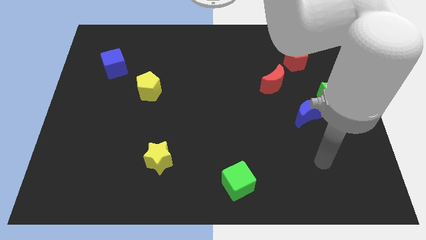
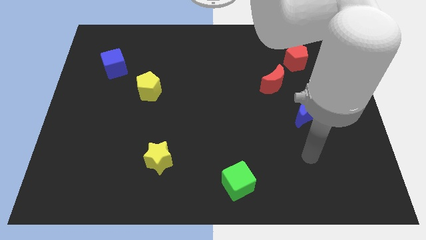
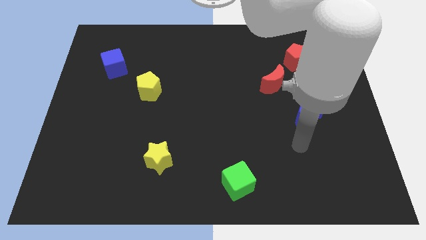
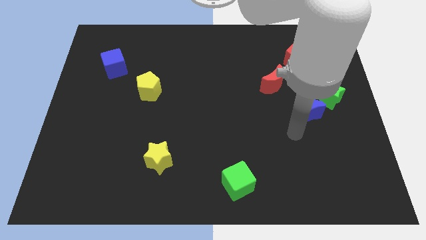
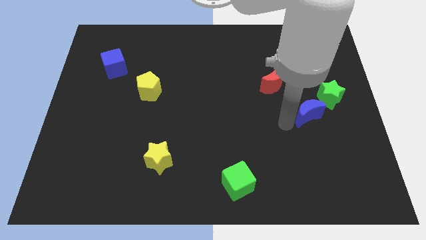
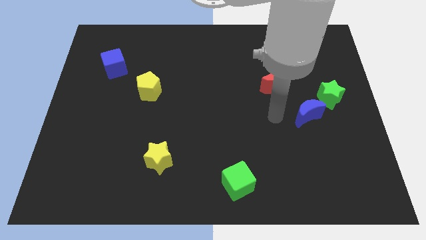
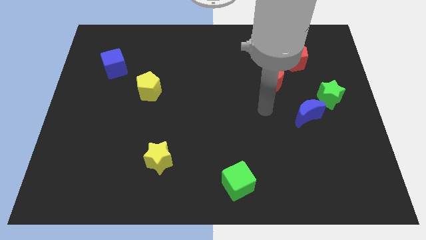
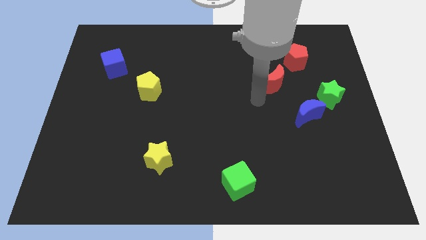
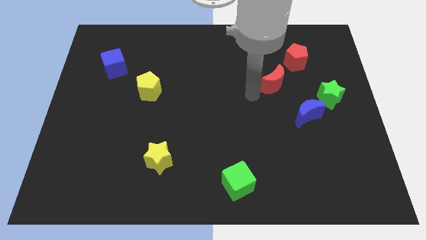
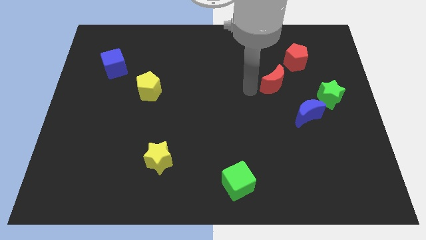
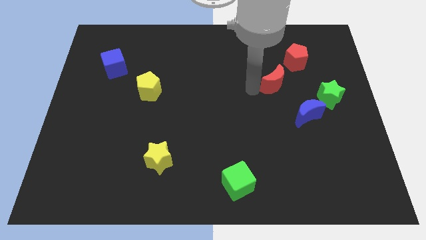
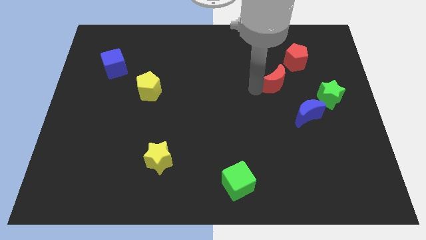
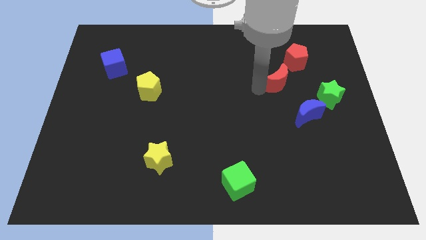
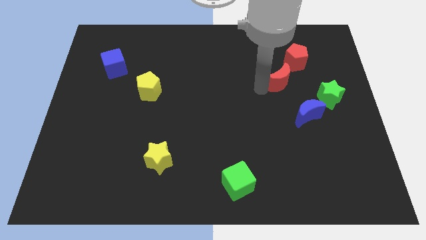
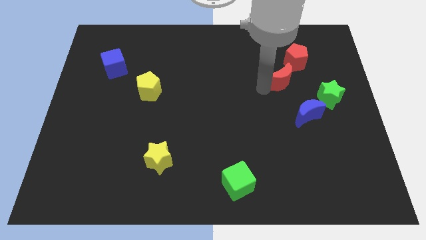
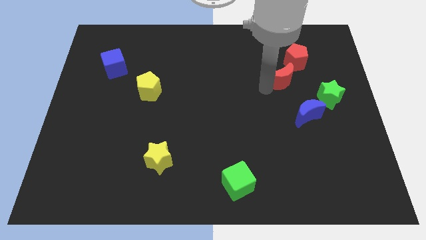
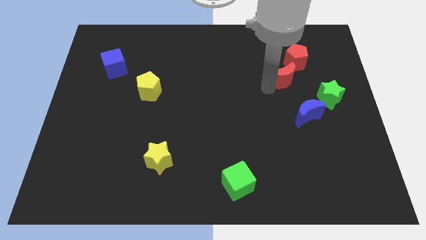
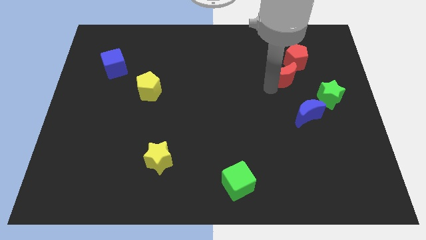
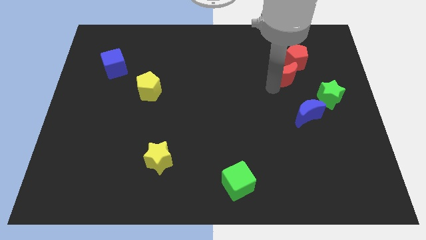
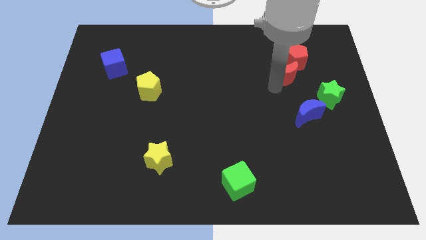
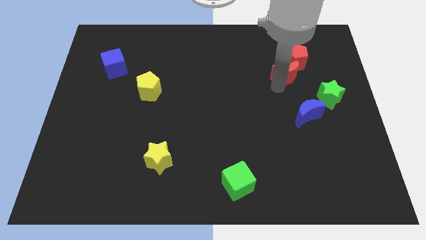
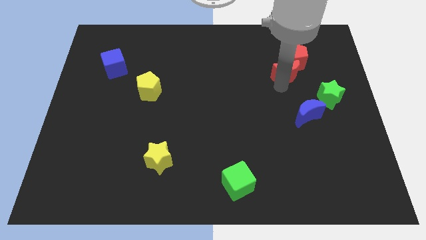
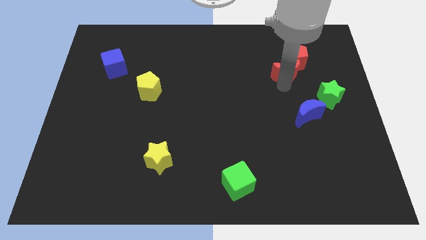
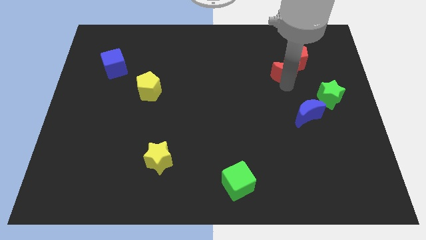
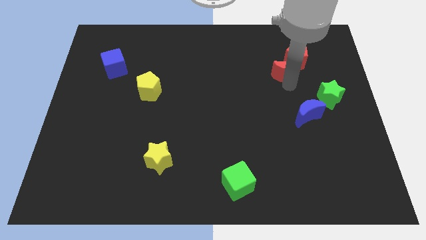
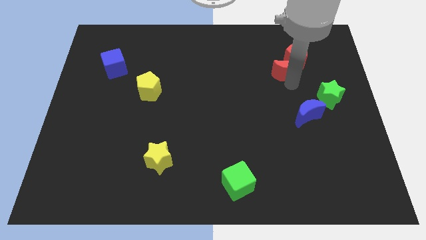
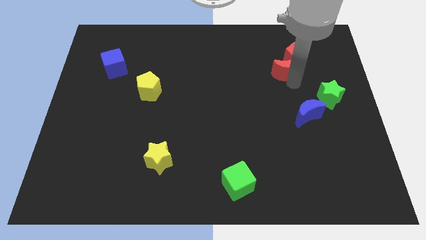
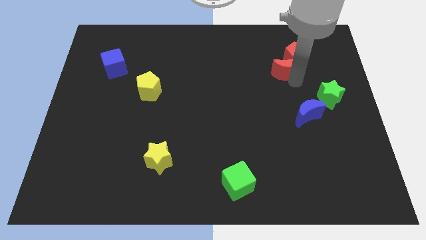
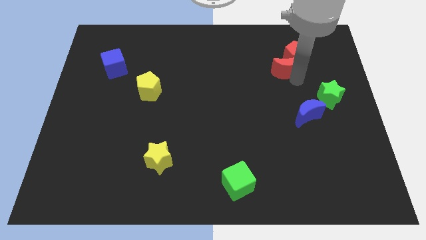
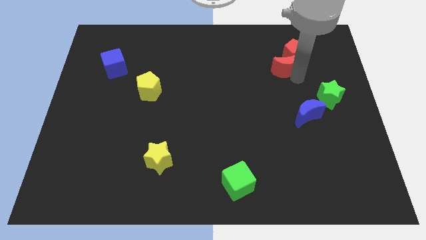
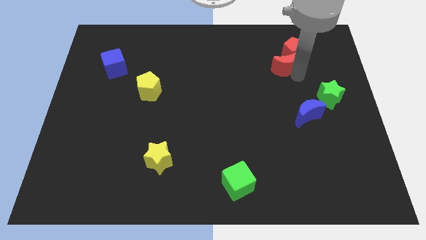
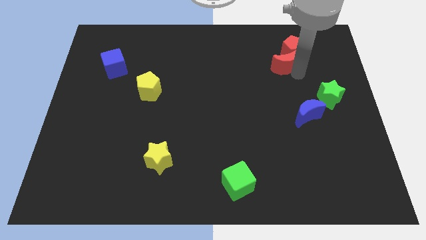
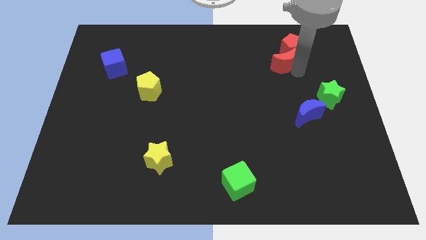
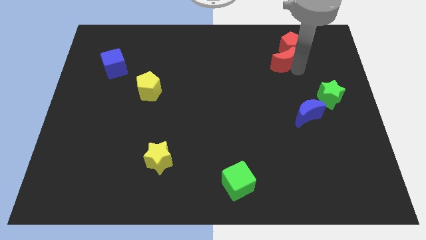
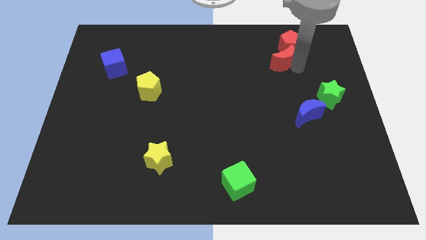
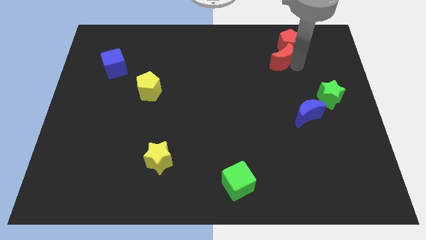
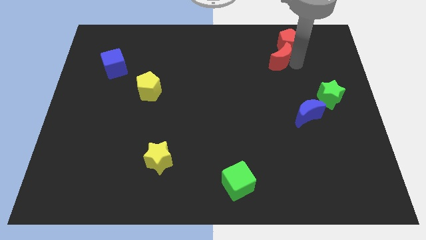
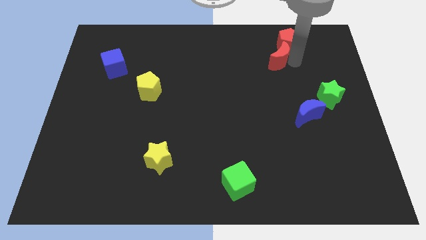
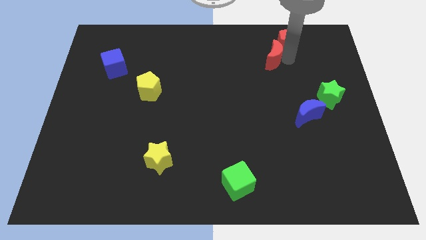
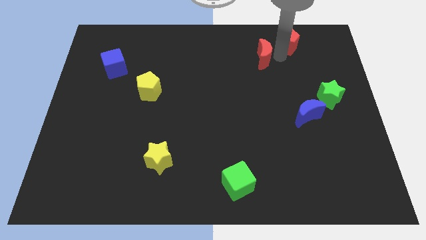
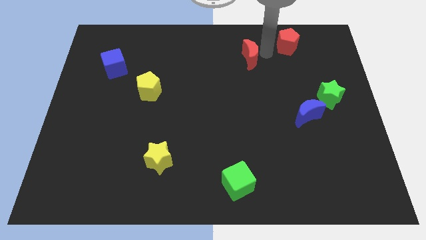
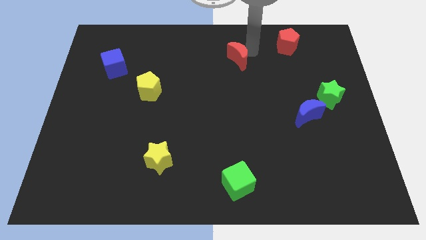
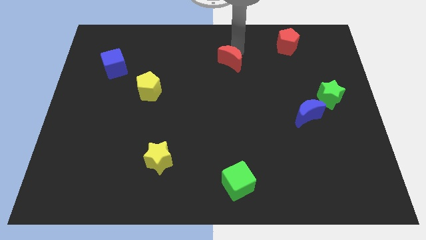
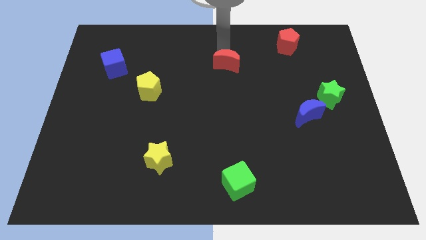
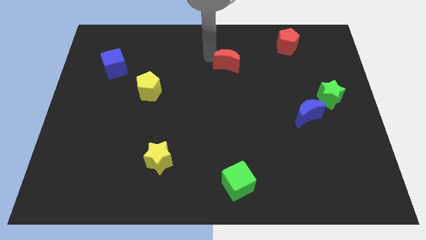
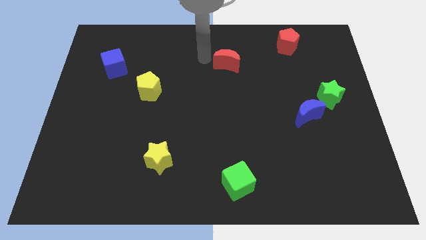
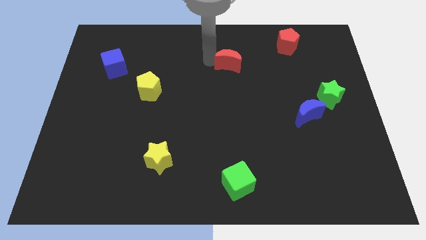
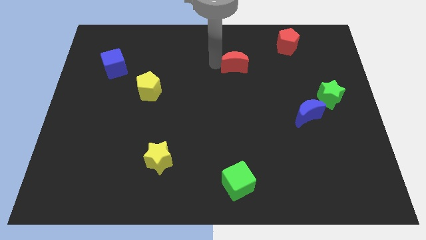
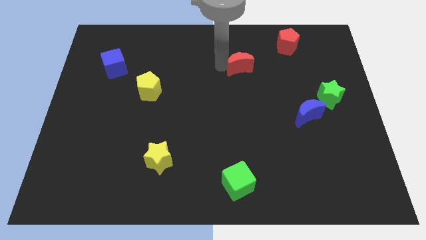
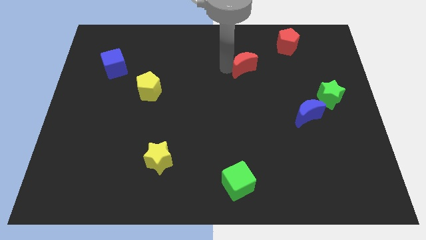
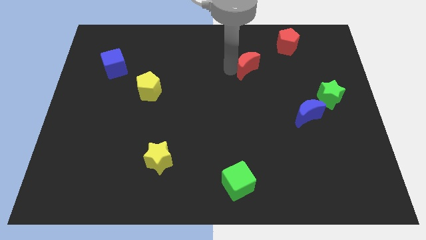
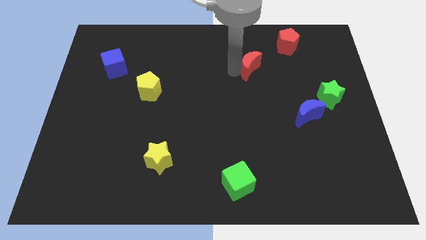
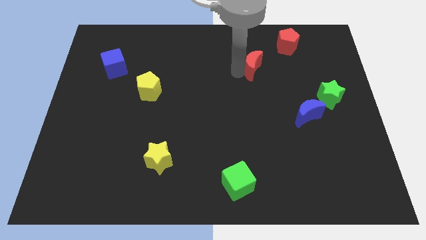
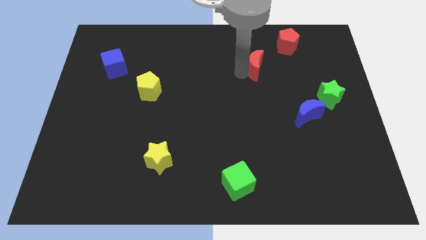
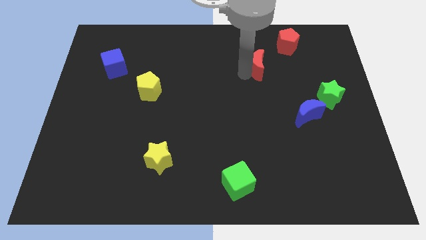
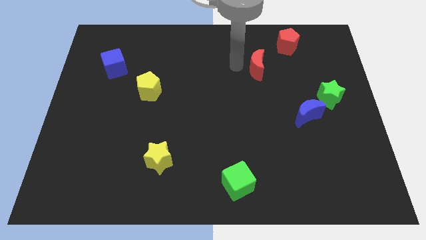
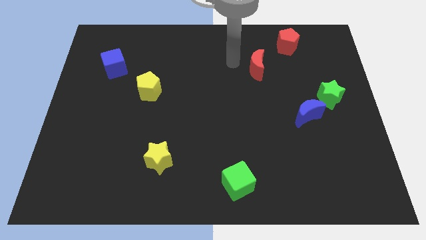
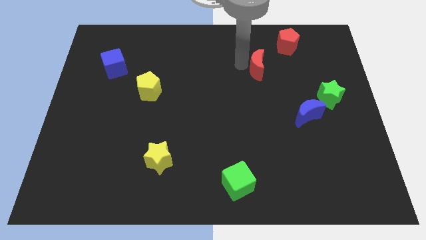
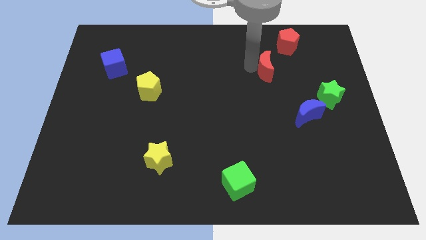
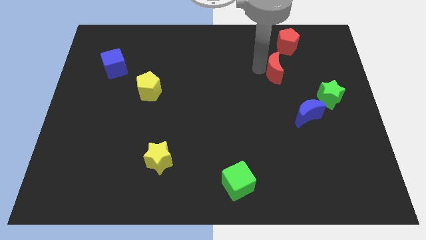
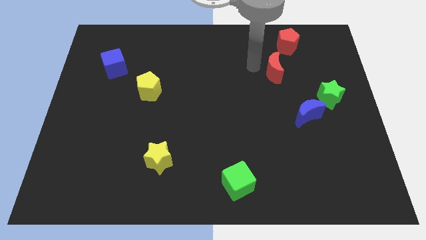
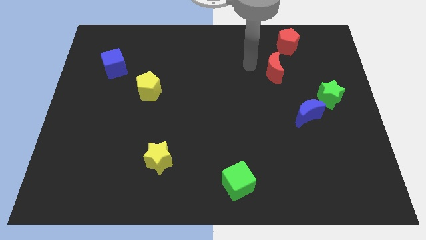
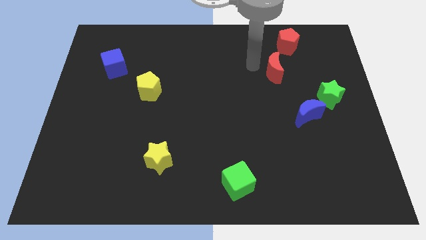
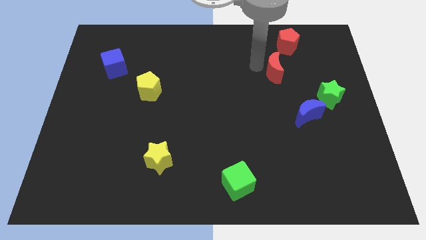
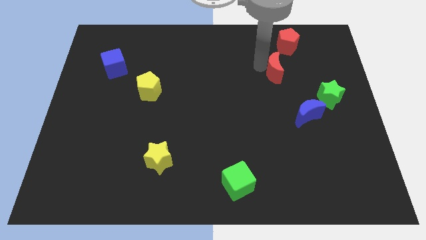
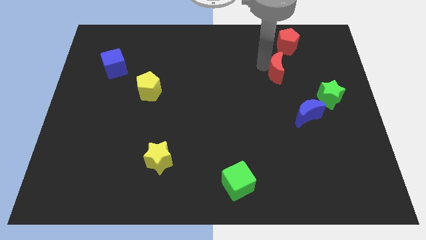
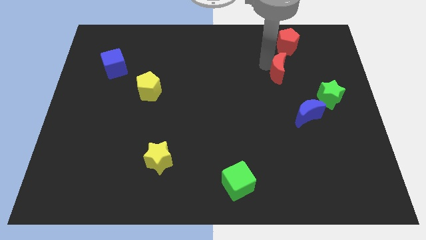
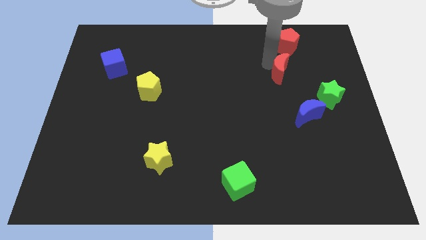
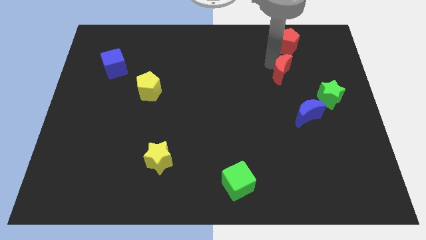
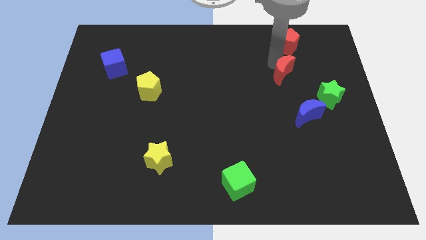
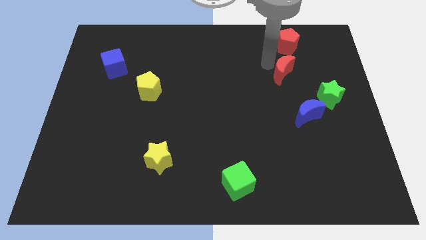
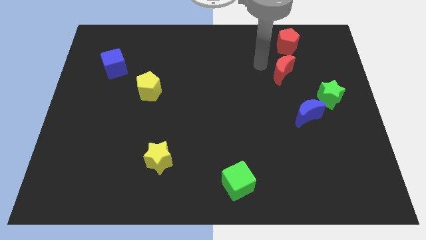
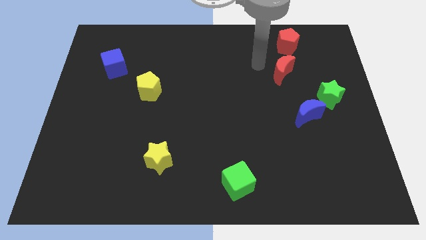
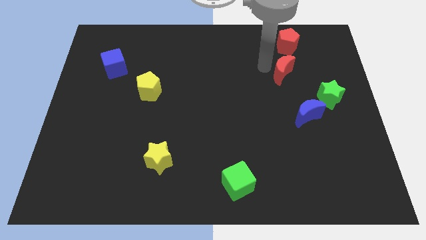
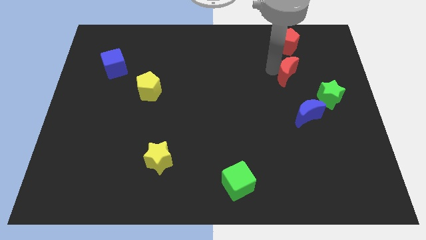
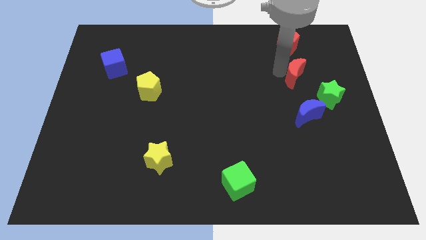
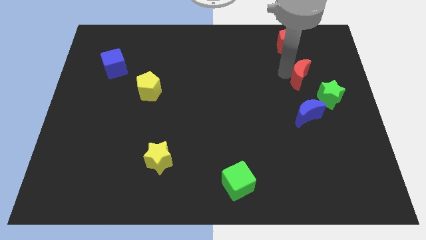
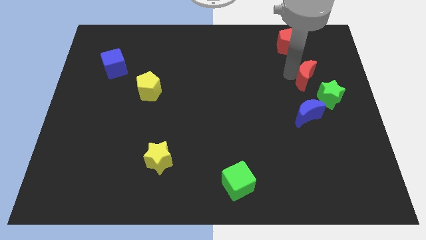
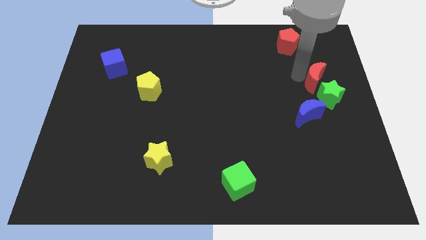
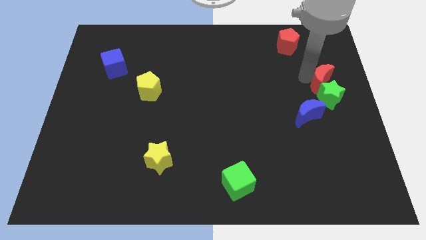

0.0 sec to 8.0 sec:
push the red moon to the right side of the board
